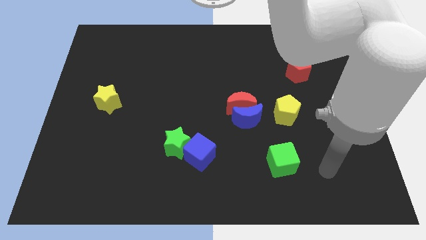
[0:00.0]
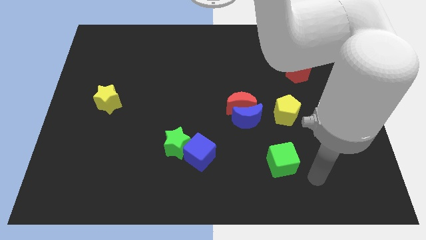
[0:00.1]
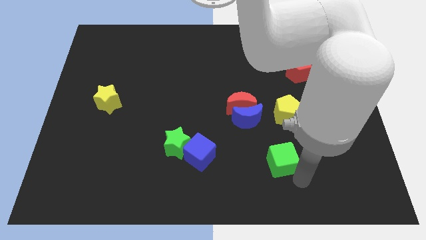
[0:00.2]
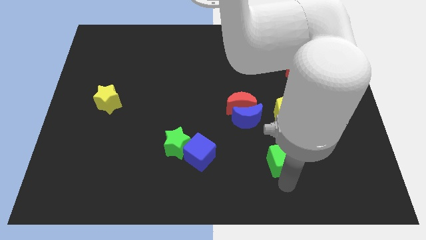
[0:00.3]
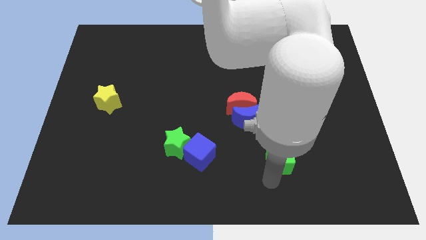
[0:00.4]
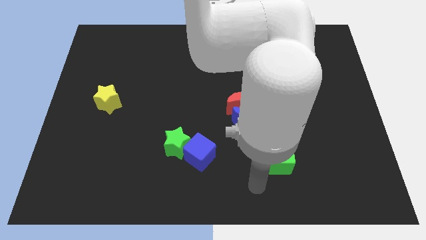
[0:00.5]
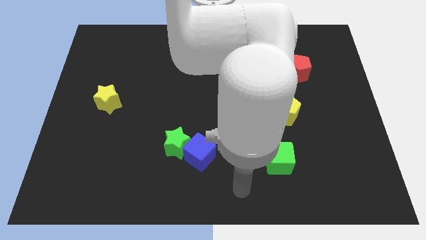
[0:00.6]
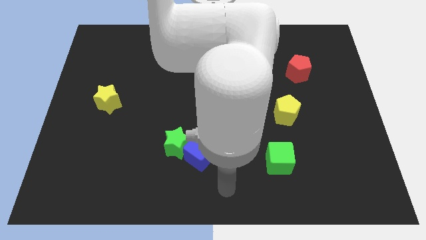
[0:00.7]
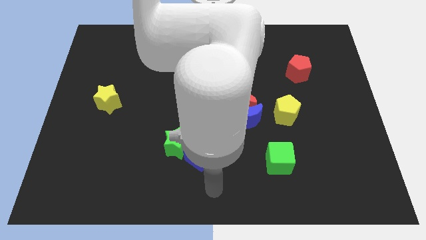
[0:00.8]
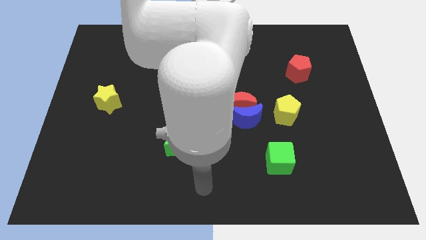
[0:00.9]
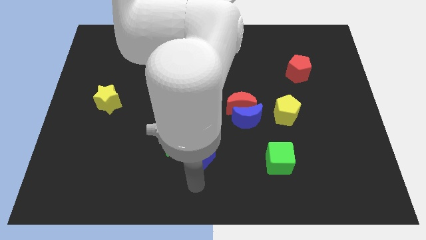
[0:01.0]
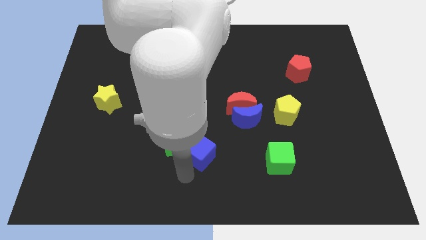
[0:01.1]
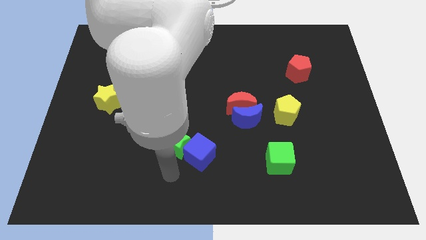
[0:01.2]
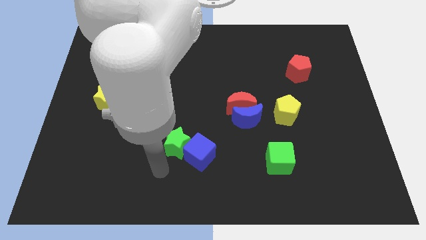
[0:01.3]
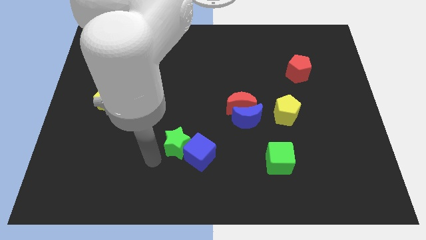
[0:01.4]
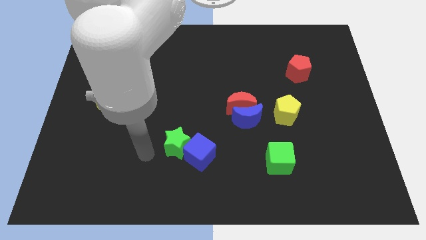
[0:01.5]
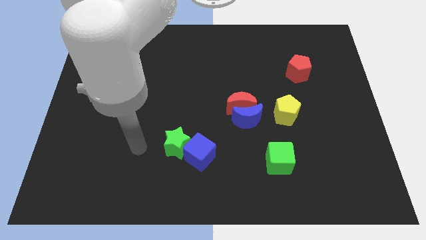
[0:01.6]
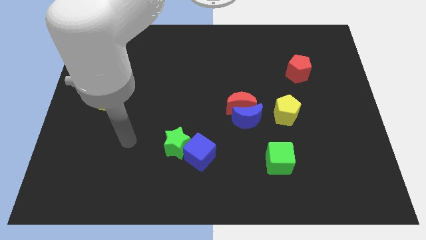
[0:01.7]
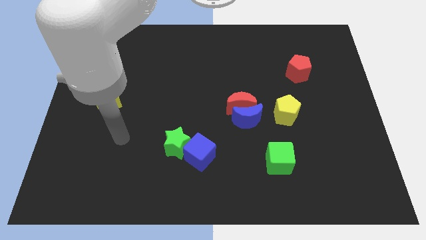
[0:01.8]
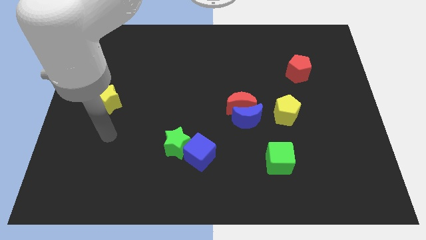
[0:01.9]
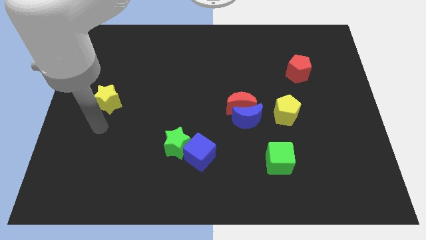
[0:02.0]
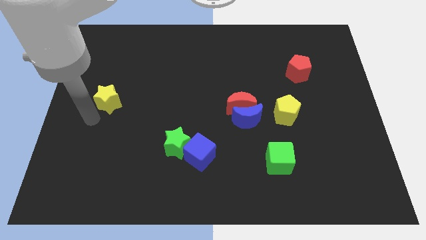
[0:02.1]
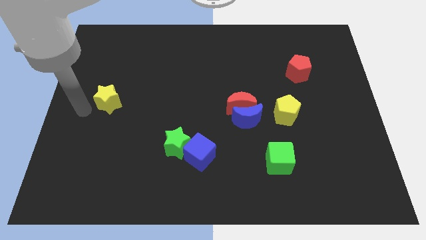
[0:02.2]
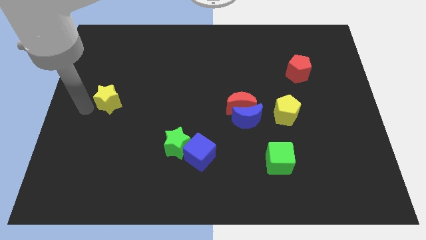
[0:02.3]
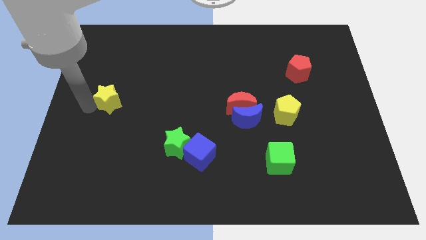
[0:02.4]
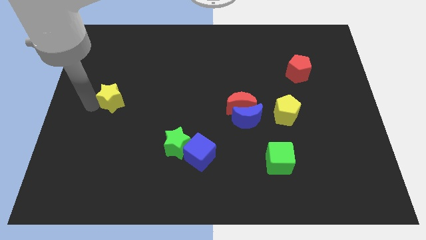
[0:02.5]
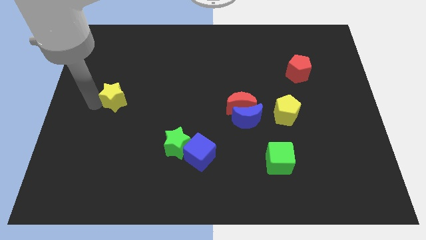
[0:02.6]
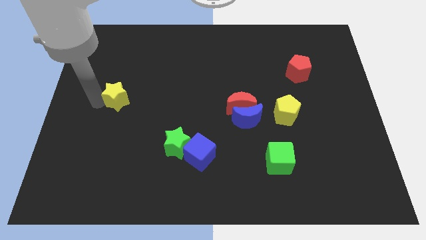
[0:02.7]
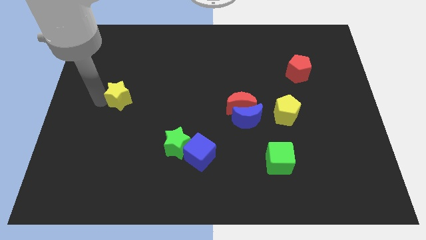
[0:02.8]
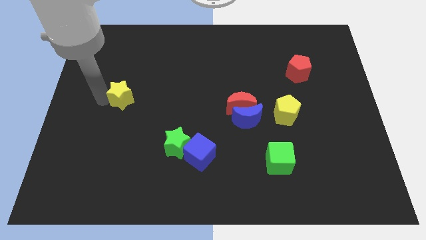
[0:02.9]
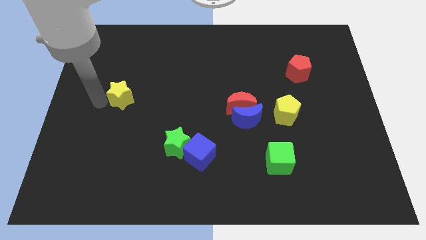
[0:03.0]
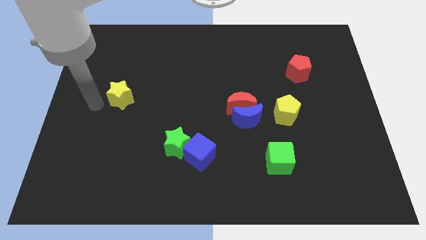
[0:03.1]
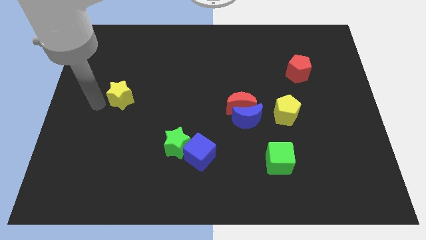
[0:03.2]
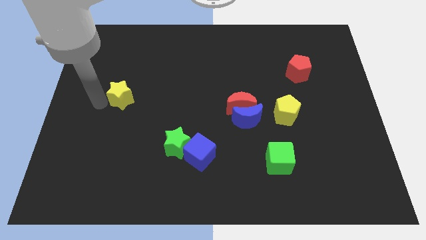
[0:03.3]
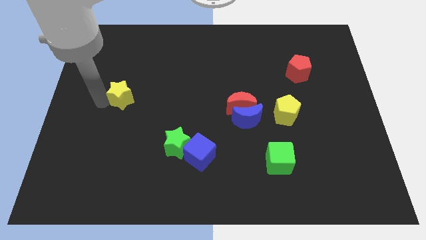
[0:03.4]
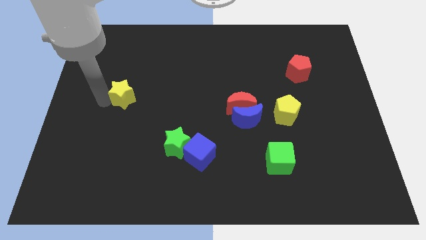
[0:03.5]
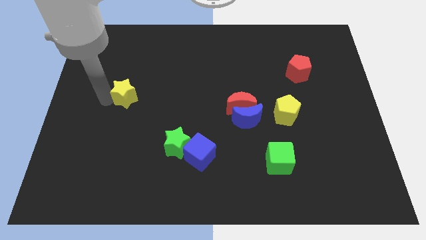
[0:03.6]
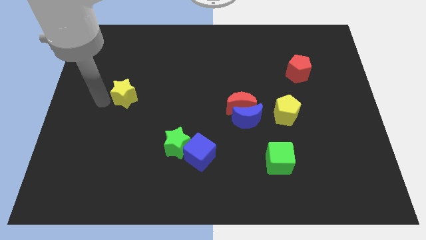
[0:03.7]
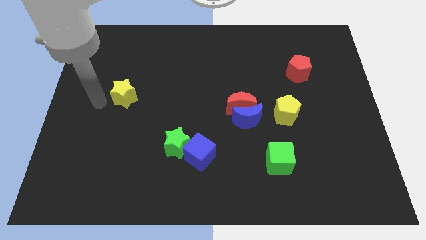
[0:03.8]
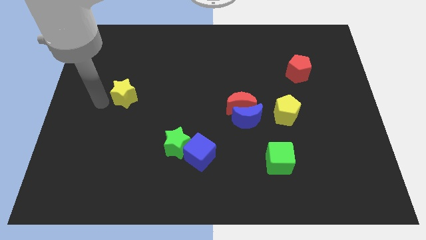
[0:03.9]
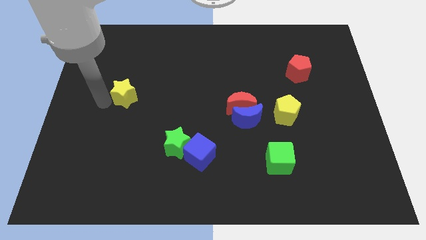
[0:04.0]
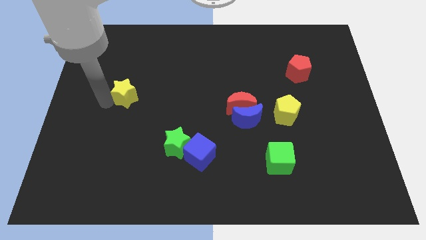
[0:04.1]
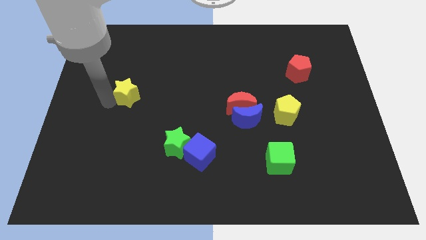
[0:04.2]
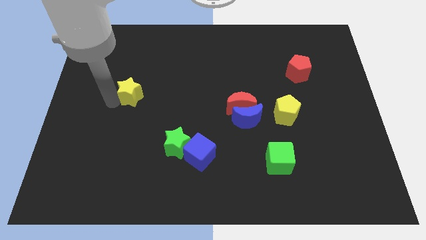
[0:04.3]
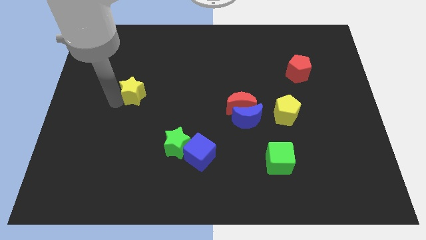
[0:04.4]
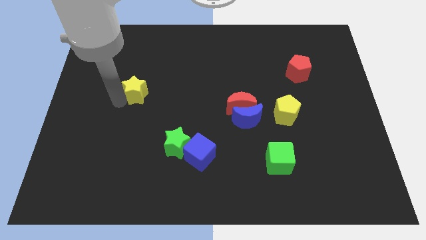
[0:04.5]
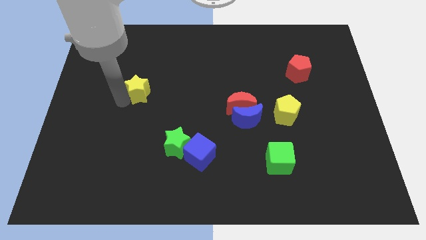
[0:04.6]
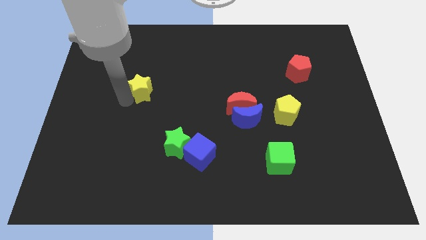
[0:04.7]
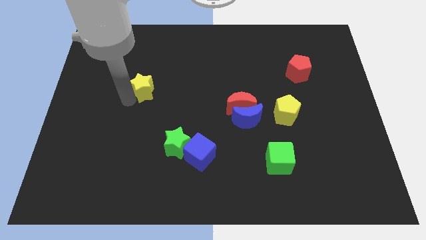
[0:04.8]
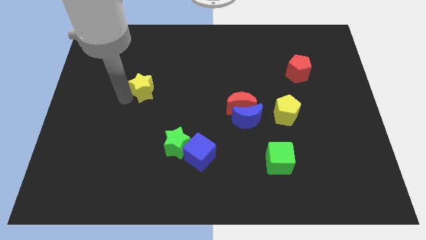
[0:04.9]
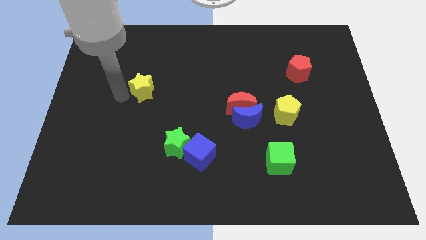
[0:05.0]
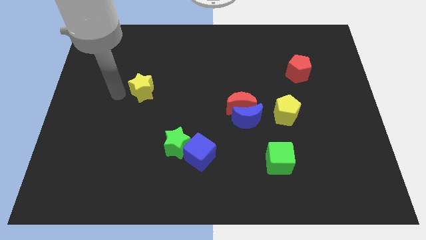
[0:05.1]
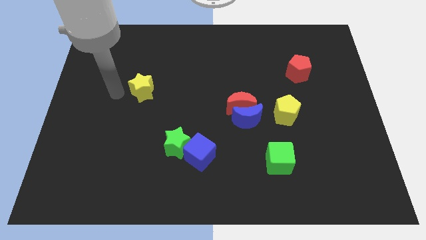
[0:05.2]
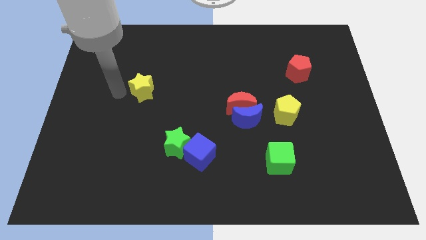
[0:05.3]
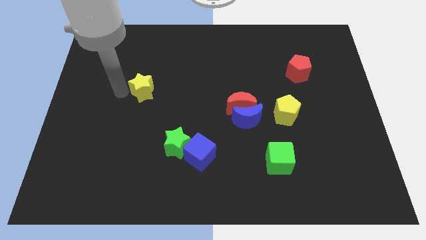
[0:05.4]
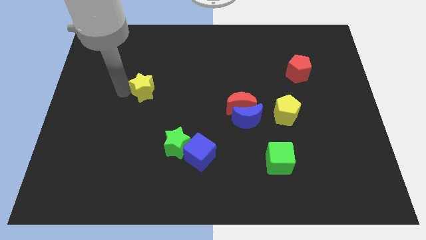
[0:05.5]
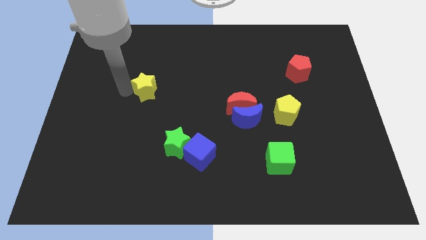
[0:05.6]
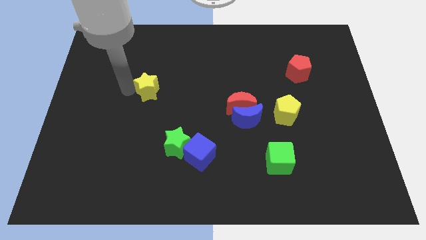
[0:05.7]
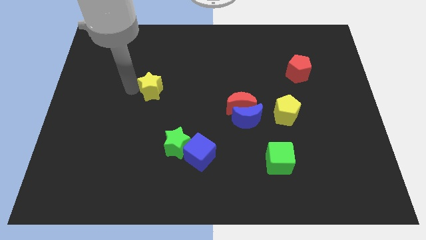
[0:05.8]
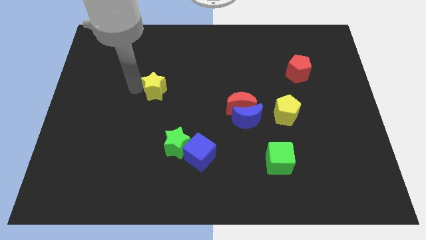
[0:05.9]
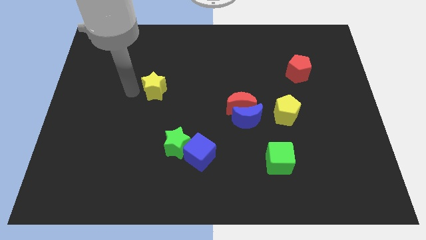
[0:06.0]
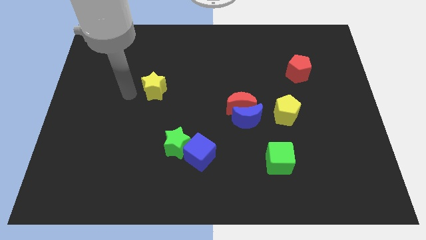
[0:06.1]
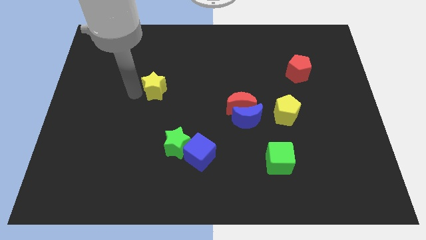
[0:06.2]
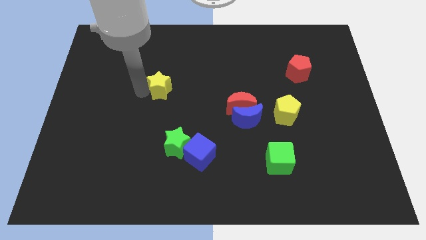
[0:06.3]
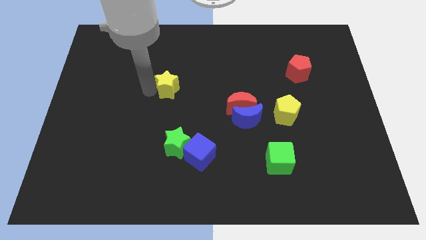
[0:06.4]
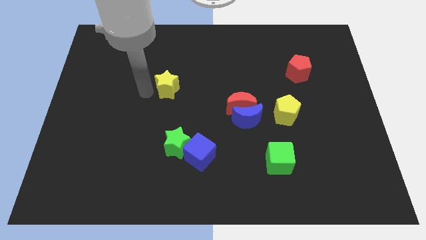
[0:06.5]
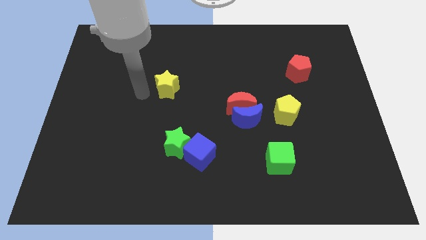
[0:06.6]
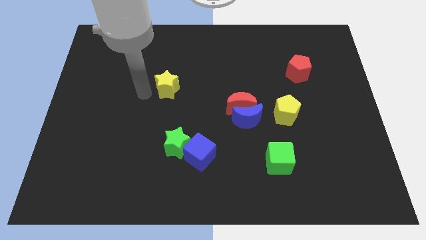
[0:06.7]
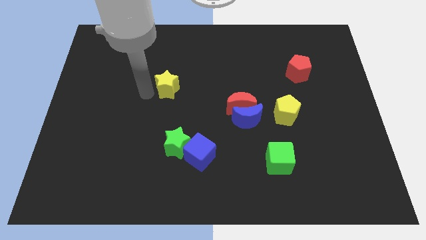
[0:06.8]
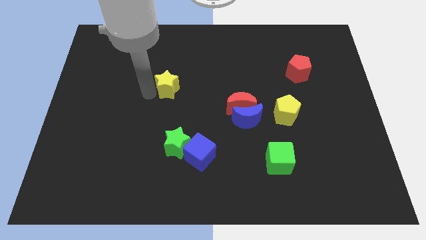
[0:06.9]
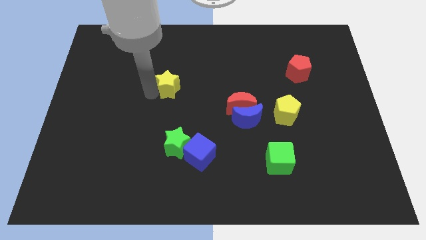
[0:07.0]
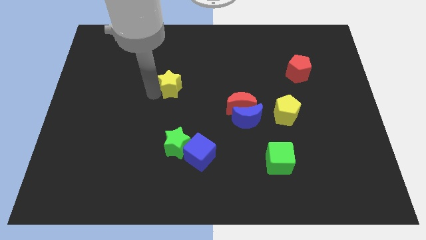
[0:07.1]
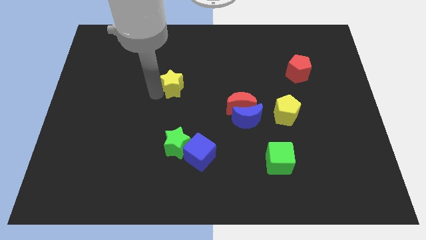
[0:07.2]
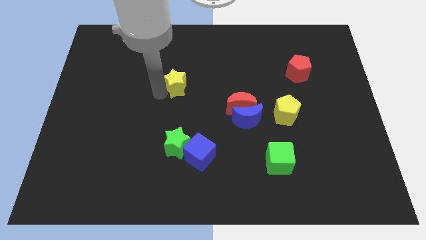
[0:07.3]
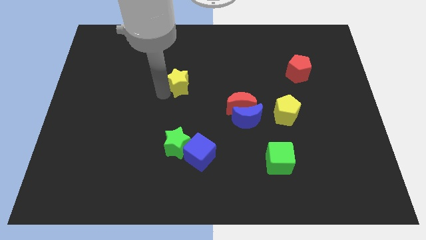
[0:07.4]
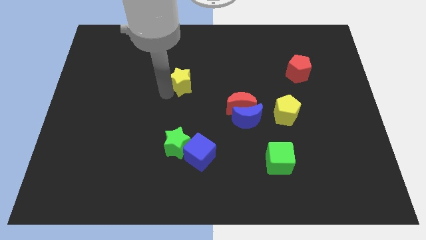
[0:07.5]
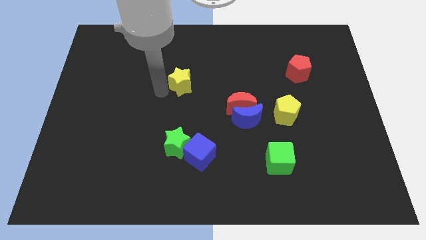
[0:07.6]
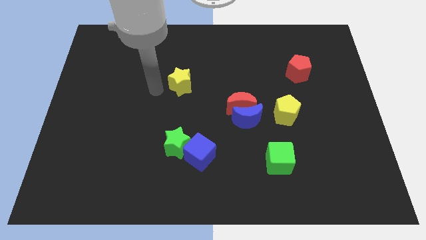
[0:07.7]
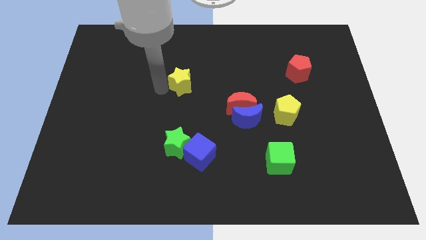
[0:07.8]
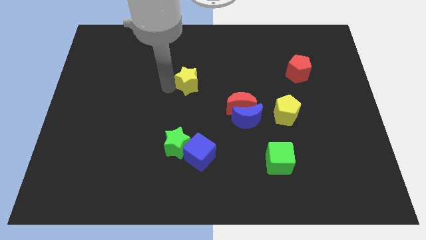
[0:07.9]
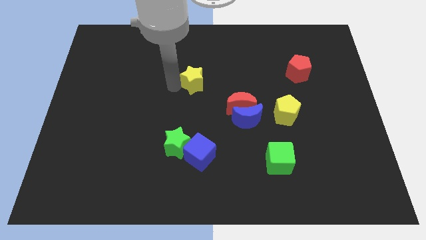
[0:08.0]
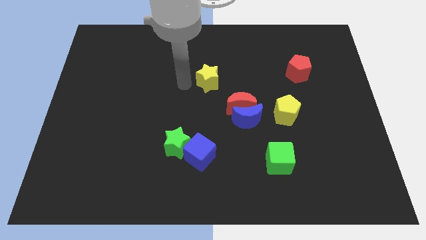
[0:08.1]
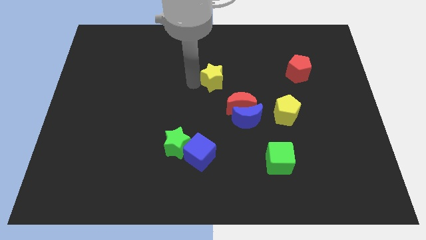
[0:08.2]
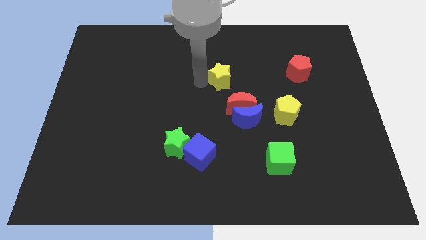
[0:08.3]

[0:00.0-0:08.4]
move the yellow star to the top of the red moon
